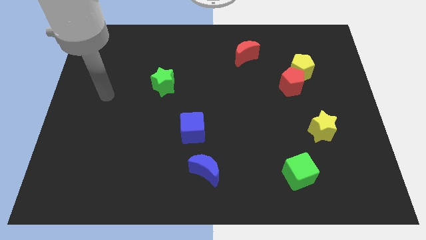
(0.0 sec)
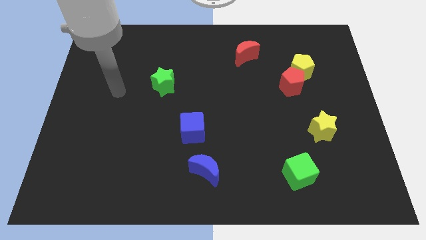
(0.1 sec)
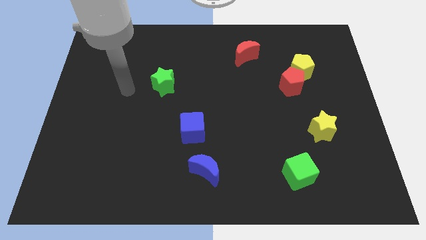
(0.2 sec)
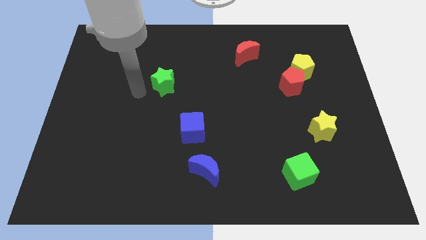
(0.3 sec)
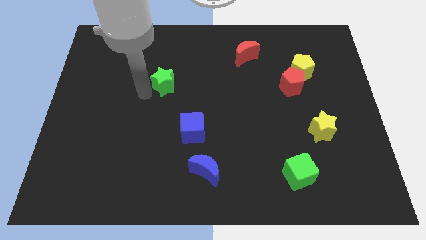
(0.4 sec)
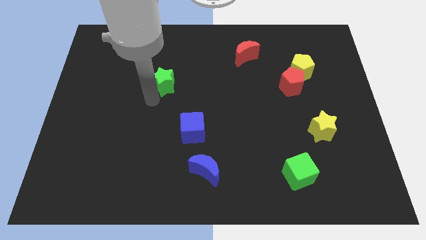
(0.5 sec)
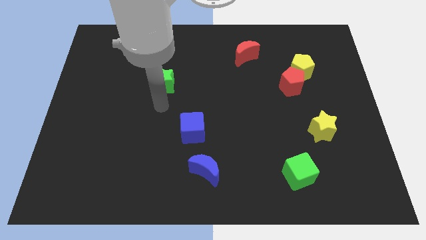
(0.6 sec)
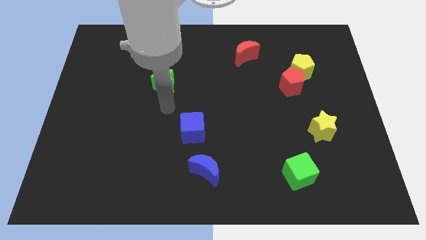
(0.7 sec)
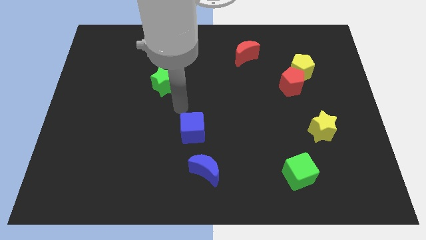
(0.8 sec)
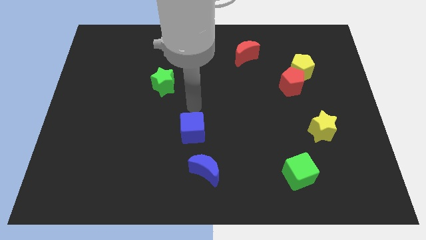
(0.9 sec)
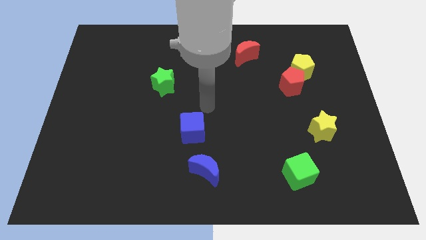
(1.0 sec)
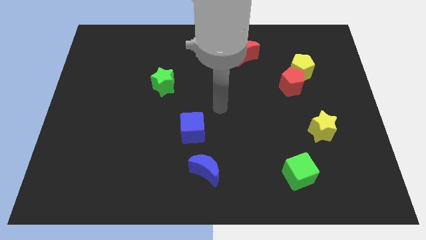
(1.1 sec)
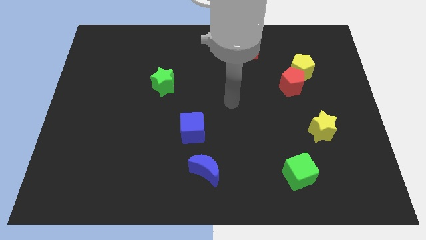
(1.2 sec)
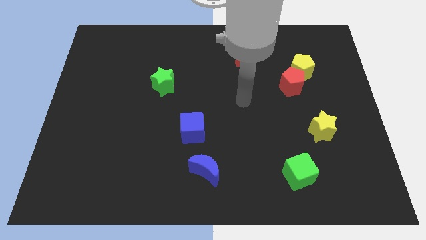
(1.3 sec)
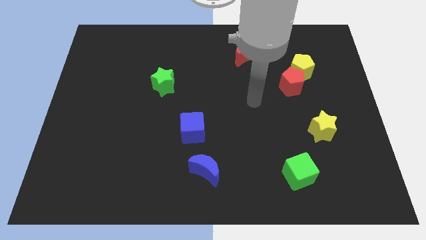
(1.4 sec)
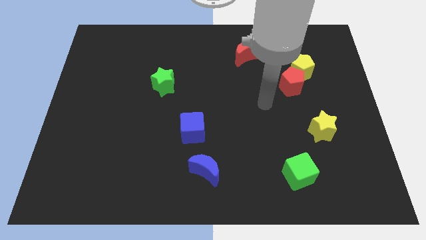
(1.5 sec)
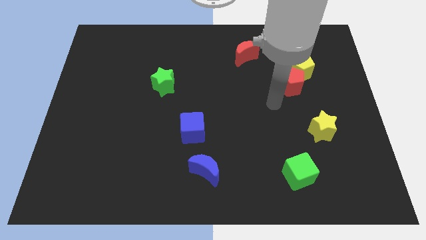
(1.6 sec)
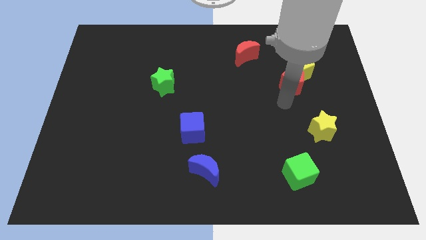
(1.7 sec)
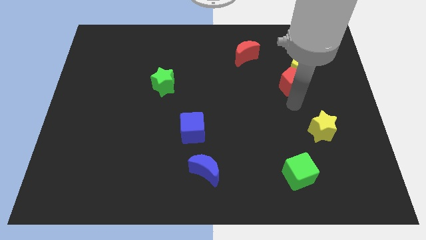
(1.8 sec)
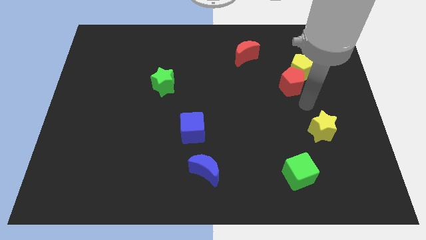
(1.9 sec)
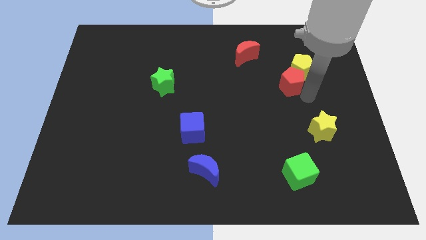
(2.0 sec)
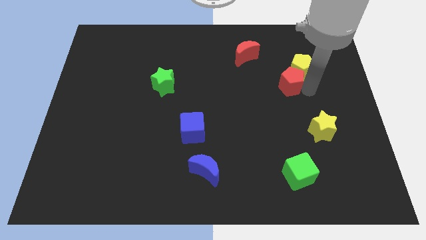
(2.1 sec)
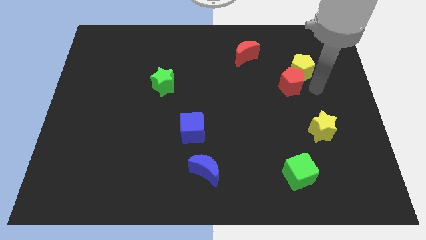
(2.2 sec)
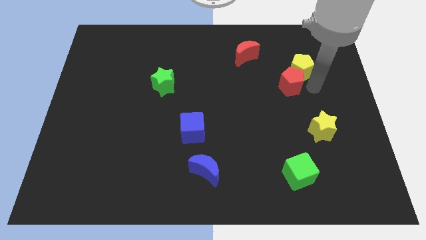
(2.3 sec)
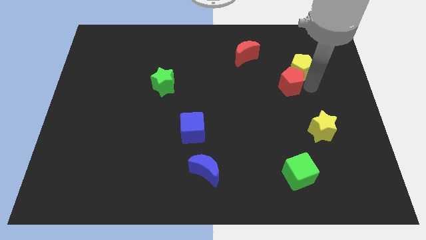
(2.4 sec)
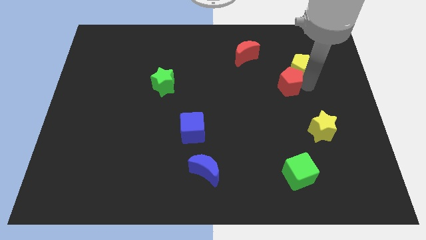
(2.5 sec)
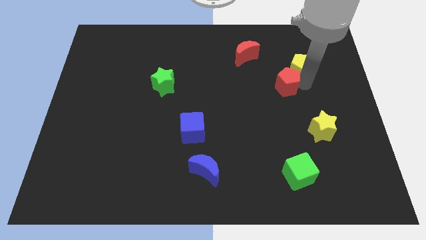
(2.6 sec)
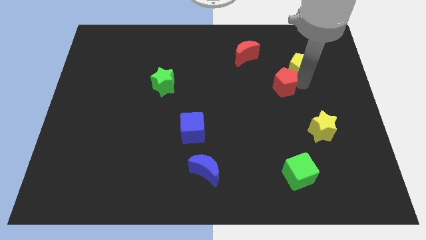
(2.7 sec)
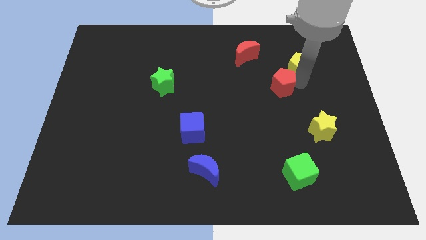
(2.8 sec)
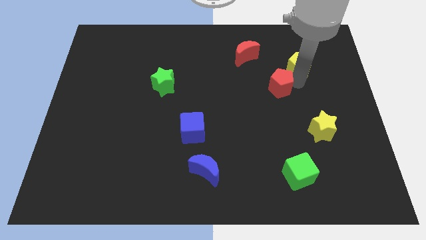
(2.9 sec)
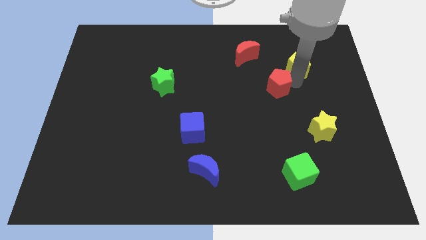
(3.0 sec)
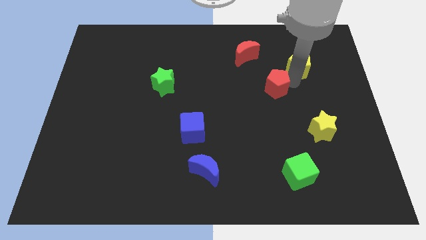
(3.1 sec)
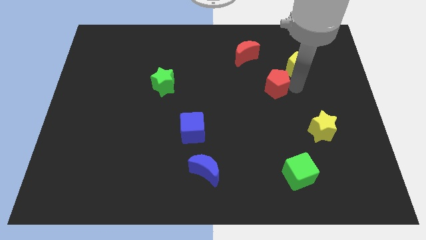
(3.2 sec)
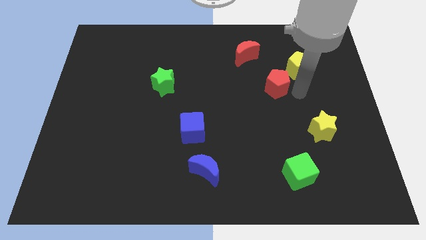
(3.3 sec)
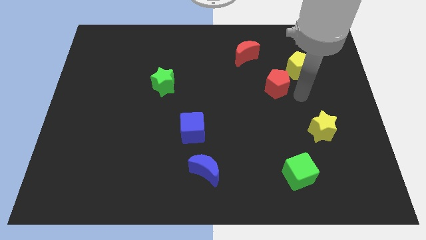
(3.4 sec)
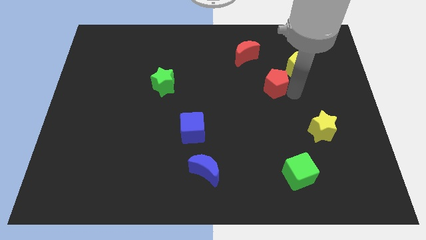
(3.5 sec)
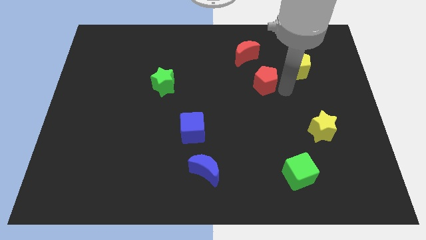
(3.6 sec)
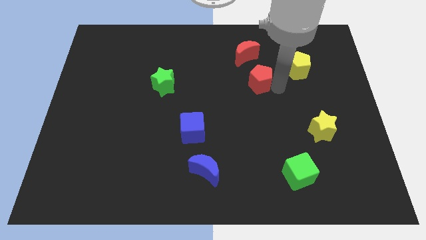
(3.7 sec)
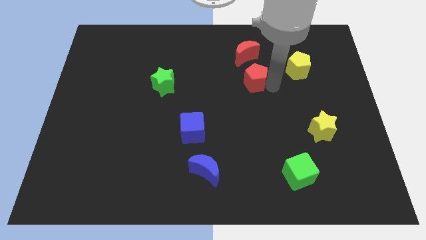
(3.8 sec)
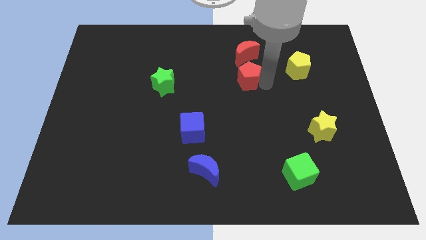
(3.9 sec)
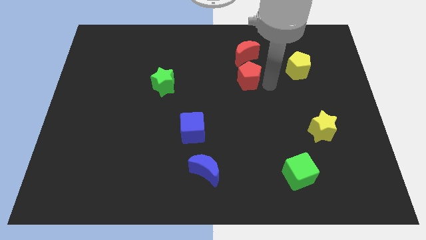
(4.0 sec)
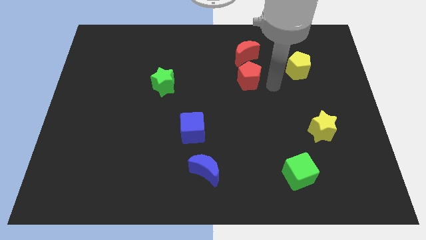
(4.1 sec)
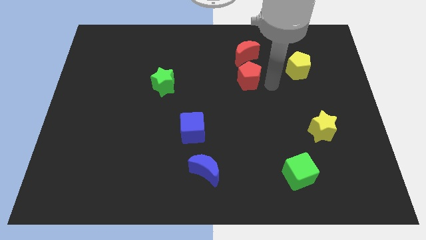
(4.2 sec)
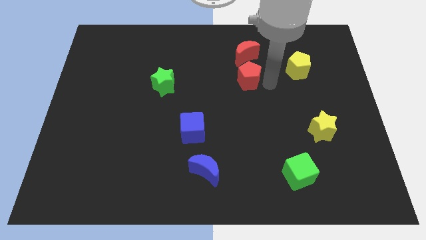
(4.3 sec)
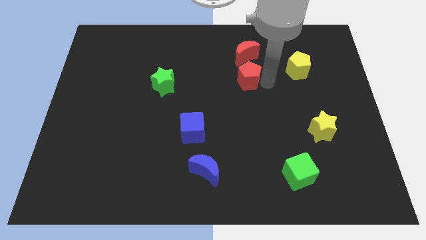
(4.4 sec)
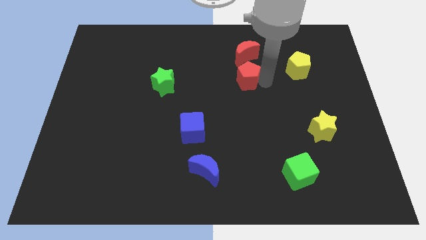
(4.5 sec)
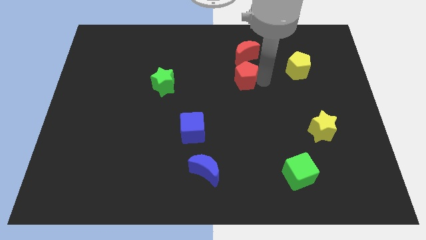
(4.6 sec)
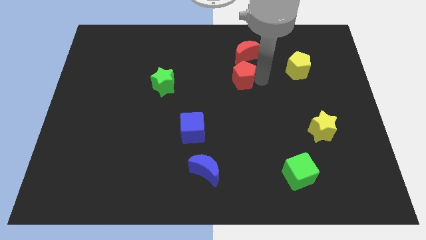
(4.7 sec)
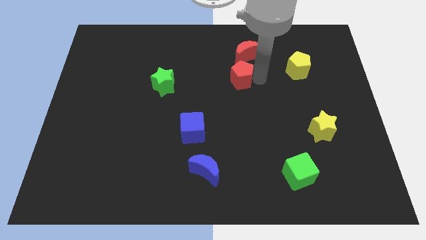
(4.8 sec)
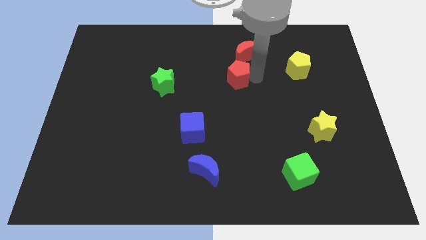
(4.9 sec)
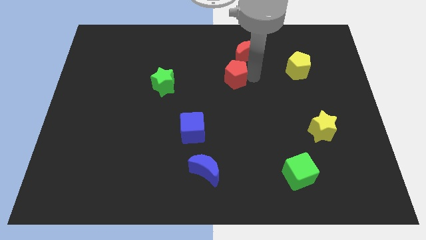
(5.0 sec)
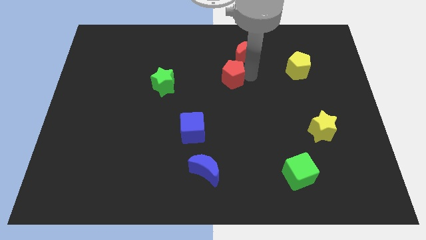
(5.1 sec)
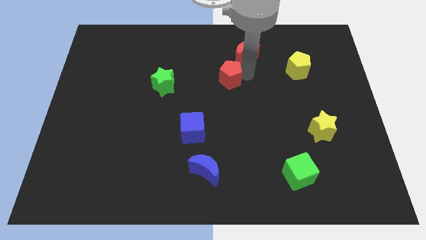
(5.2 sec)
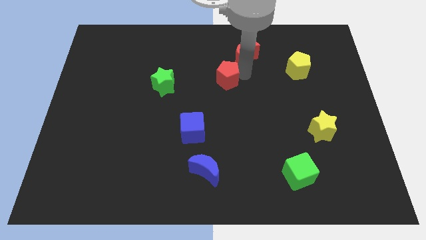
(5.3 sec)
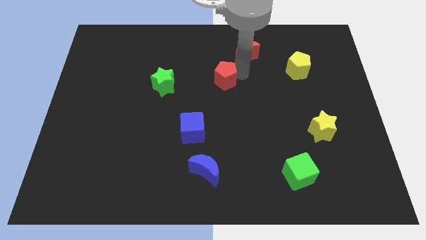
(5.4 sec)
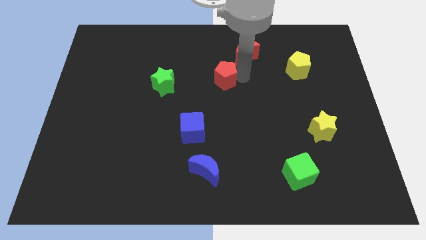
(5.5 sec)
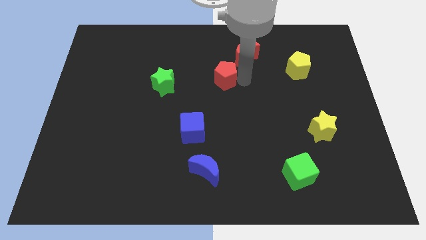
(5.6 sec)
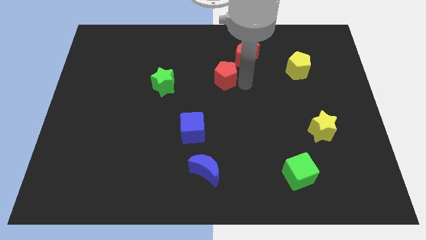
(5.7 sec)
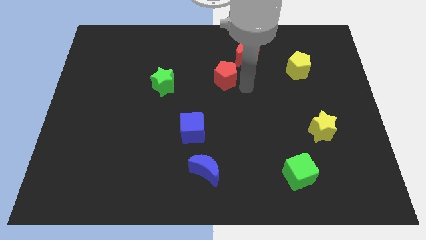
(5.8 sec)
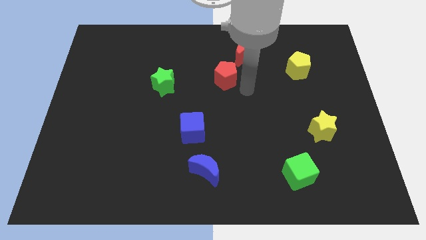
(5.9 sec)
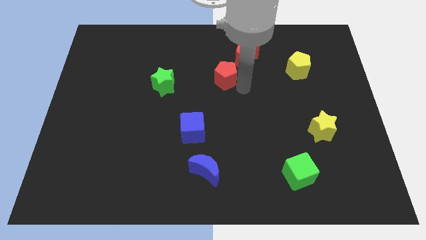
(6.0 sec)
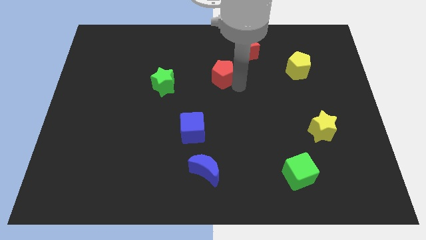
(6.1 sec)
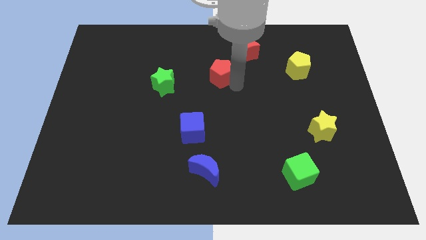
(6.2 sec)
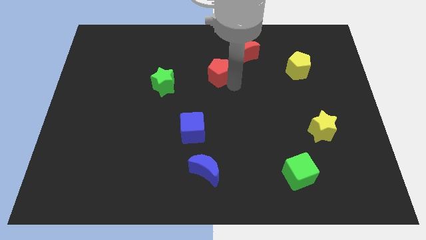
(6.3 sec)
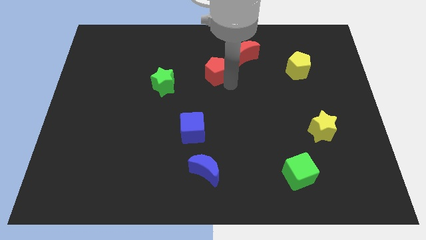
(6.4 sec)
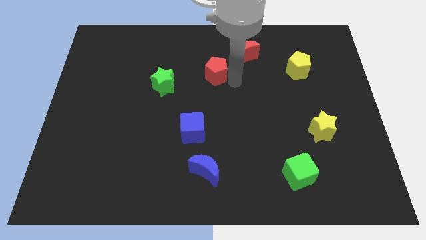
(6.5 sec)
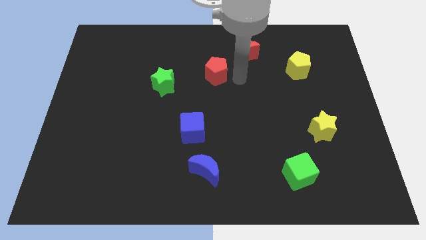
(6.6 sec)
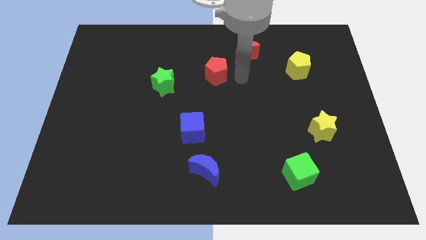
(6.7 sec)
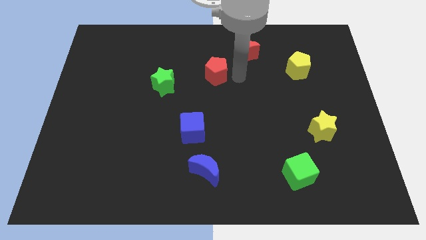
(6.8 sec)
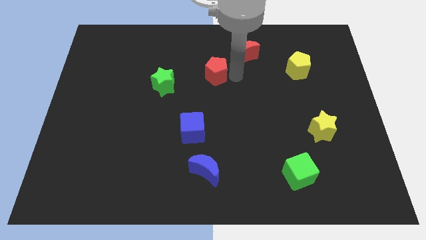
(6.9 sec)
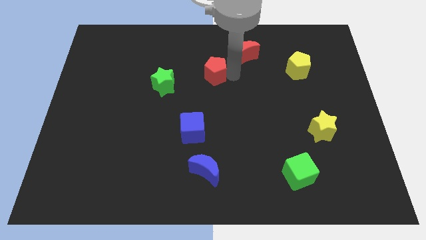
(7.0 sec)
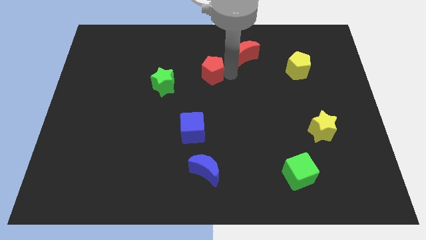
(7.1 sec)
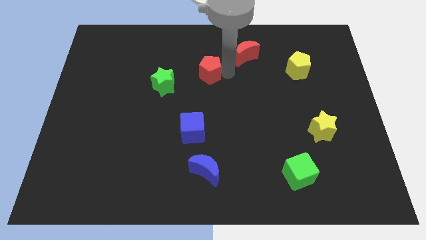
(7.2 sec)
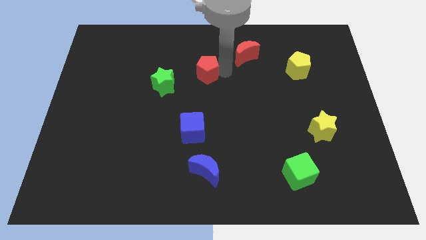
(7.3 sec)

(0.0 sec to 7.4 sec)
move the red pentagon to the top right of the green star

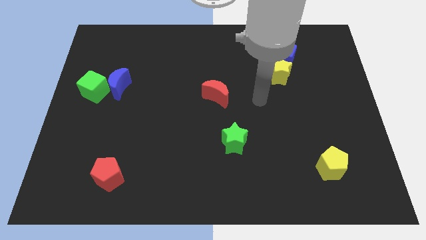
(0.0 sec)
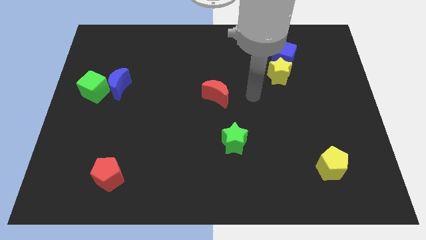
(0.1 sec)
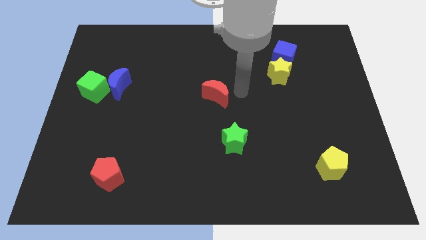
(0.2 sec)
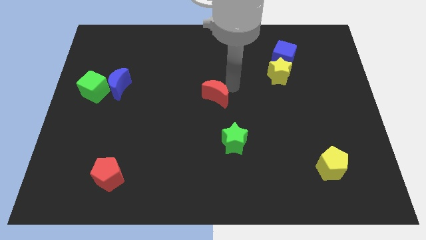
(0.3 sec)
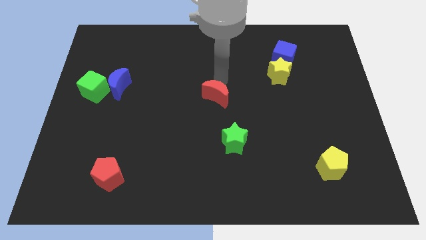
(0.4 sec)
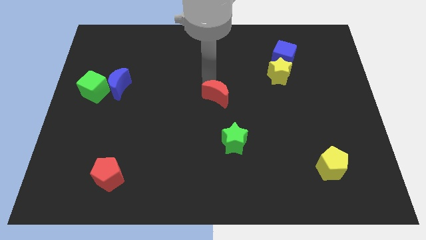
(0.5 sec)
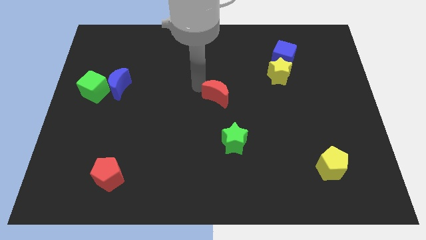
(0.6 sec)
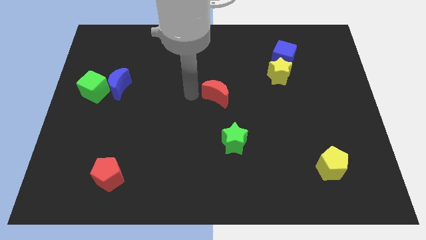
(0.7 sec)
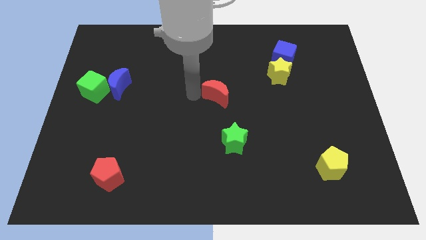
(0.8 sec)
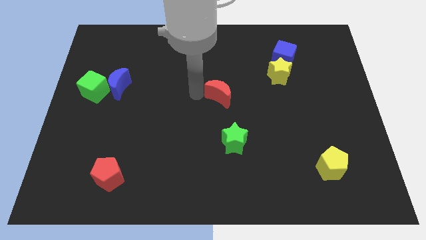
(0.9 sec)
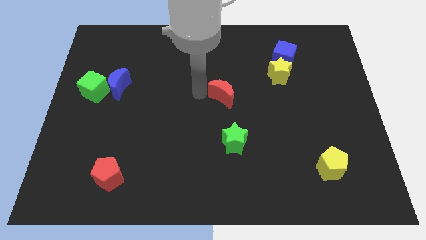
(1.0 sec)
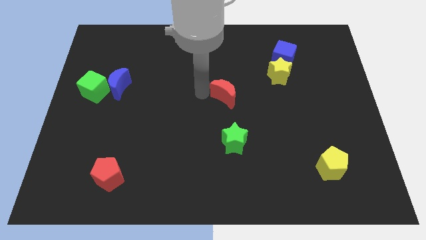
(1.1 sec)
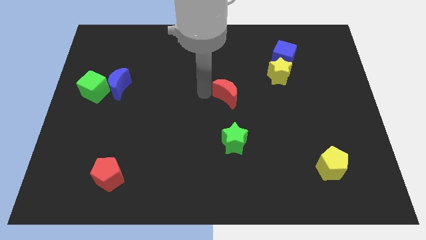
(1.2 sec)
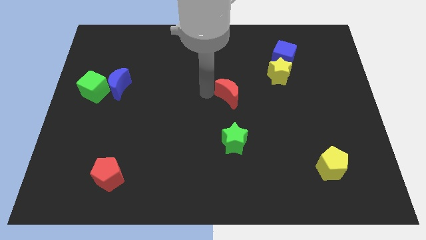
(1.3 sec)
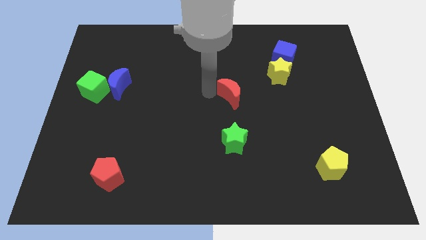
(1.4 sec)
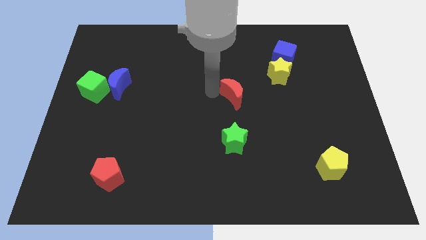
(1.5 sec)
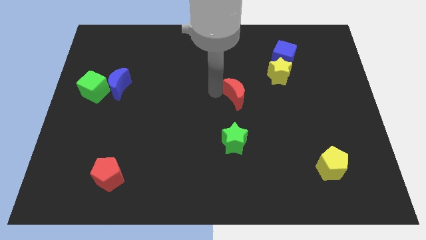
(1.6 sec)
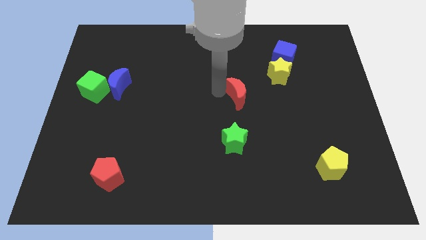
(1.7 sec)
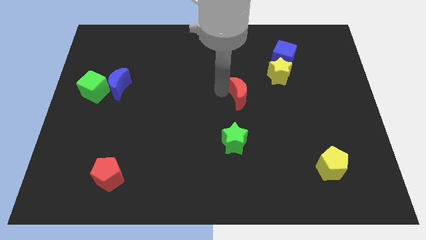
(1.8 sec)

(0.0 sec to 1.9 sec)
slide the red moon to the bottom left side of the yellow star
